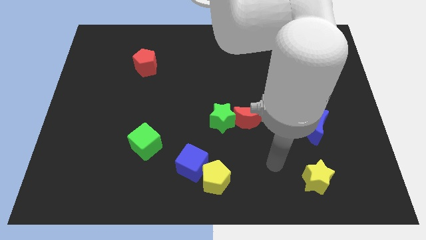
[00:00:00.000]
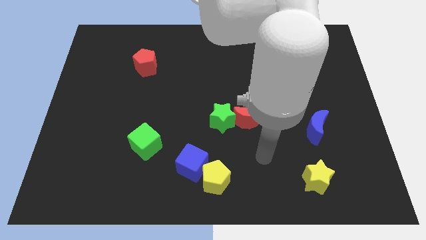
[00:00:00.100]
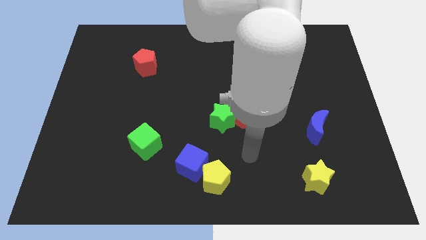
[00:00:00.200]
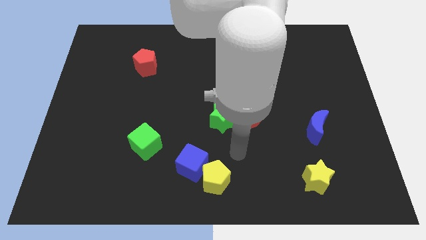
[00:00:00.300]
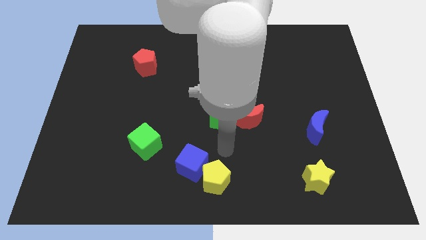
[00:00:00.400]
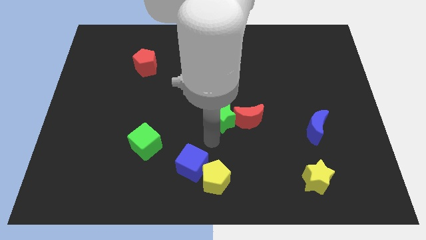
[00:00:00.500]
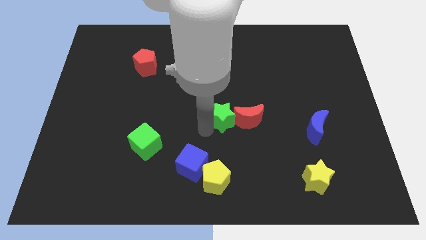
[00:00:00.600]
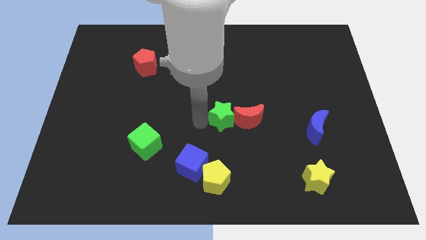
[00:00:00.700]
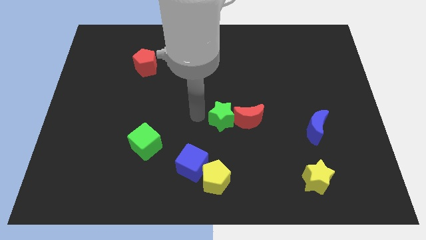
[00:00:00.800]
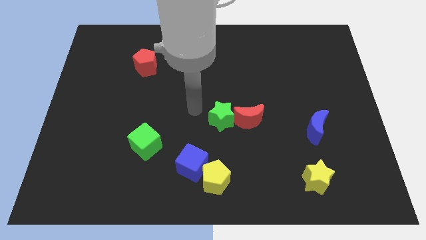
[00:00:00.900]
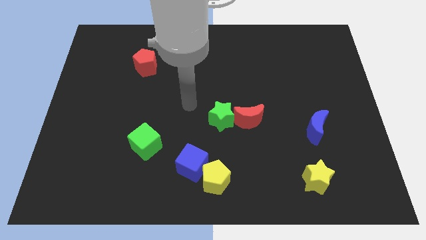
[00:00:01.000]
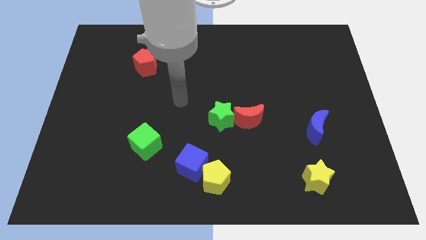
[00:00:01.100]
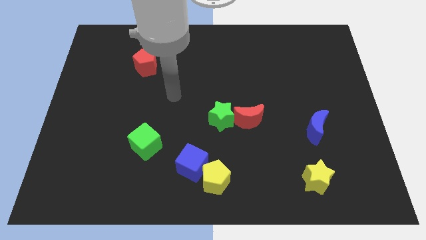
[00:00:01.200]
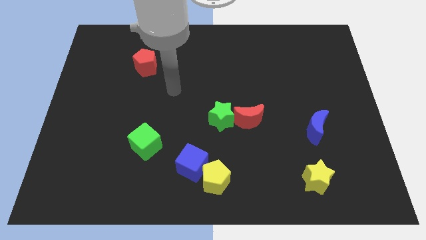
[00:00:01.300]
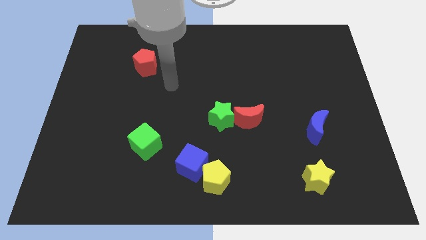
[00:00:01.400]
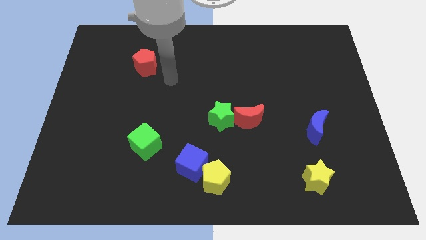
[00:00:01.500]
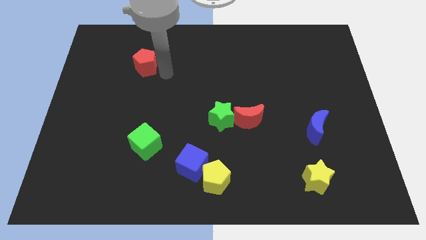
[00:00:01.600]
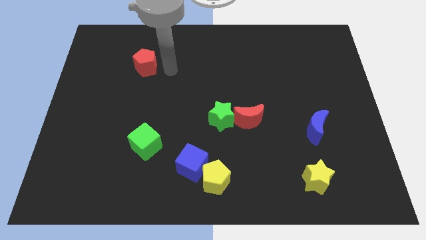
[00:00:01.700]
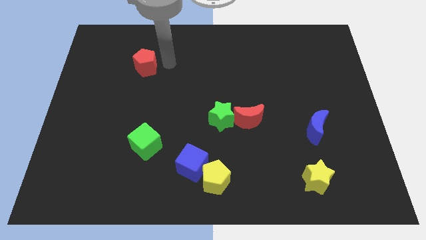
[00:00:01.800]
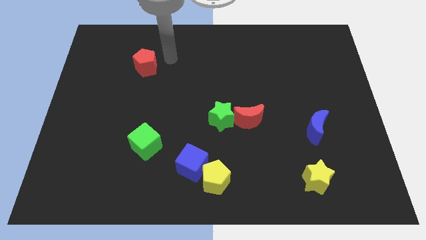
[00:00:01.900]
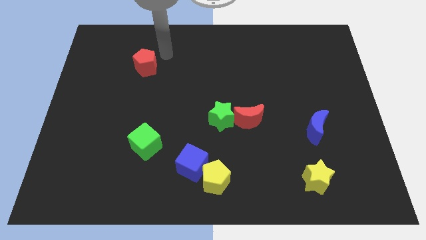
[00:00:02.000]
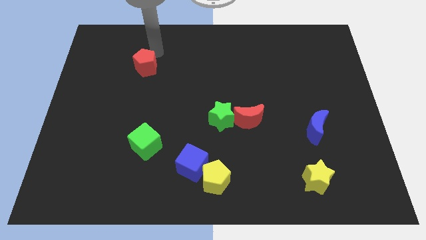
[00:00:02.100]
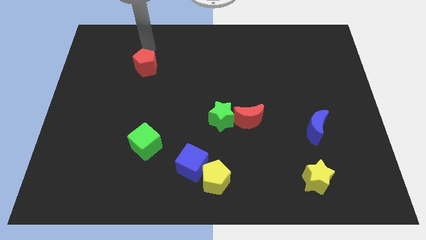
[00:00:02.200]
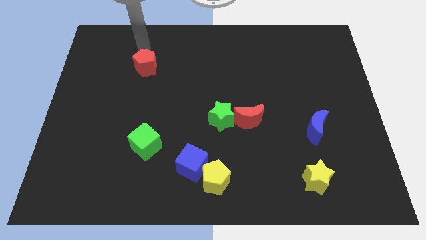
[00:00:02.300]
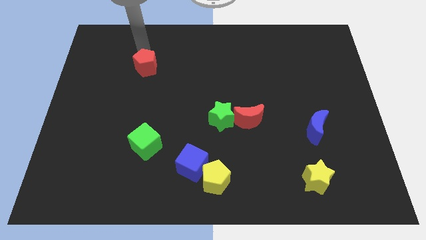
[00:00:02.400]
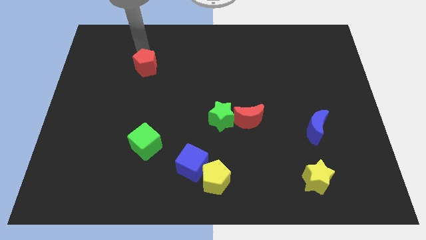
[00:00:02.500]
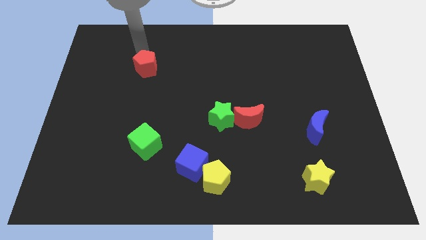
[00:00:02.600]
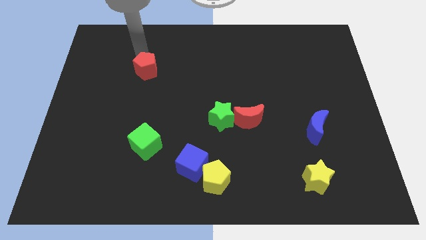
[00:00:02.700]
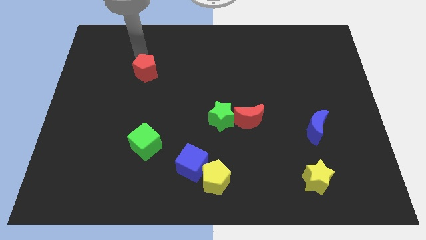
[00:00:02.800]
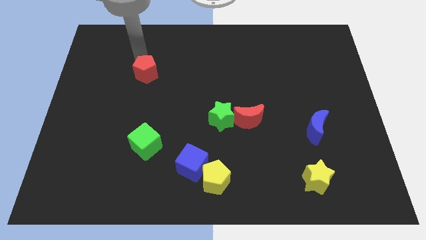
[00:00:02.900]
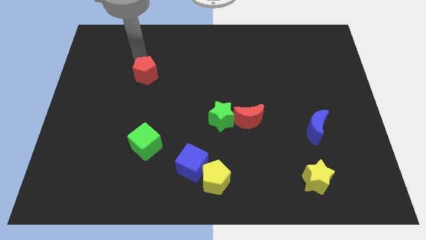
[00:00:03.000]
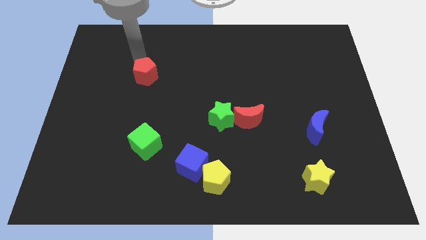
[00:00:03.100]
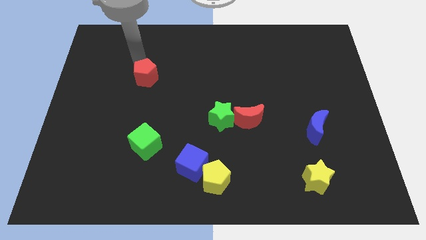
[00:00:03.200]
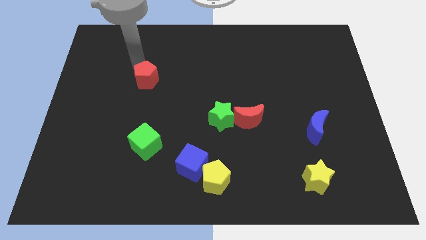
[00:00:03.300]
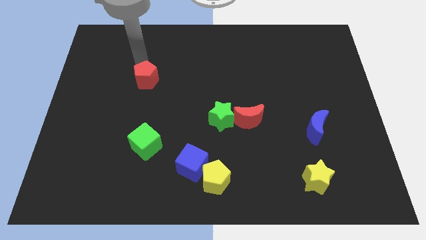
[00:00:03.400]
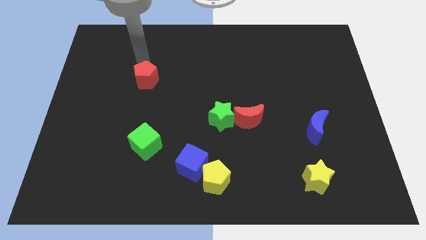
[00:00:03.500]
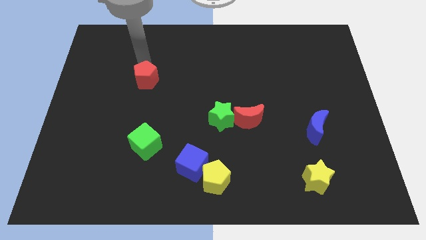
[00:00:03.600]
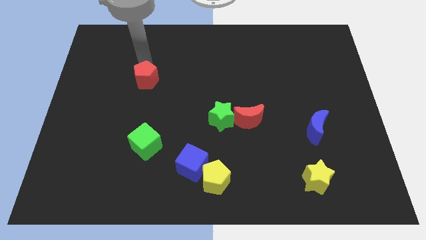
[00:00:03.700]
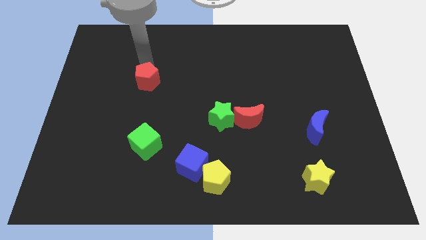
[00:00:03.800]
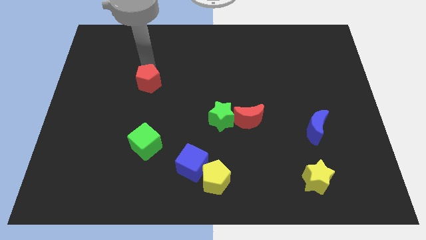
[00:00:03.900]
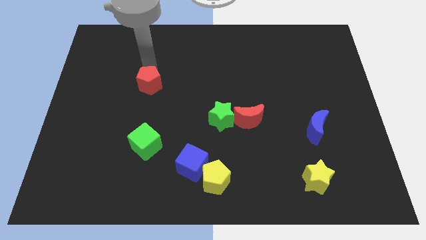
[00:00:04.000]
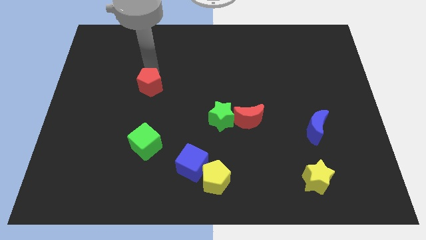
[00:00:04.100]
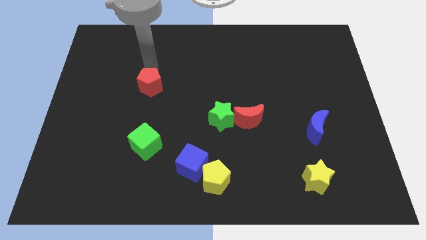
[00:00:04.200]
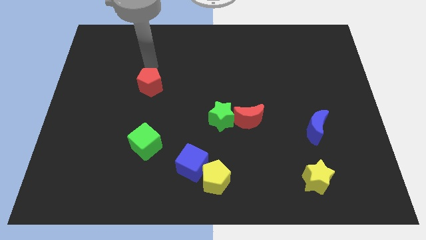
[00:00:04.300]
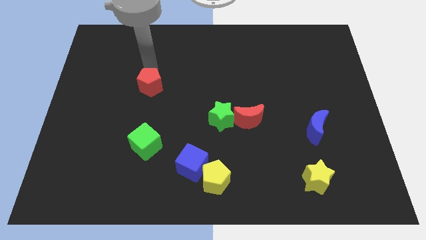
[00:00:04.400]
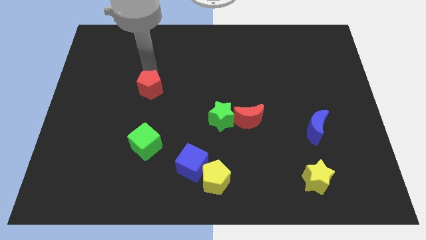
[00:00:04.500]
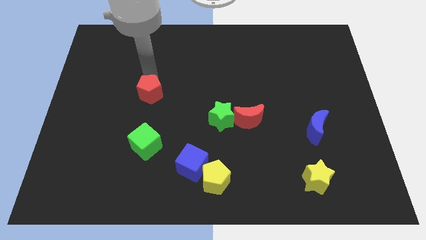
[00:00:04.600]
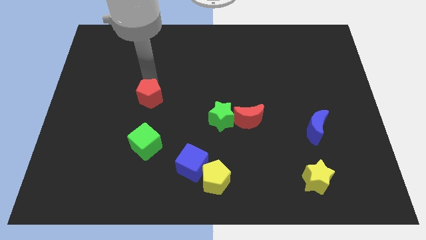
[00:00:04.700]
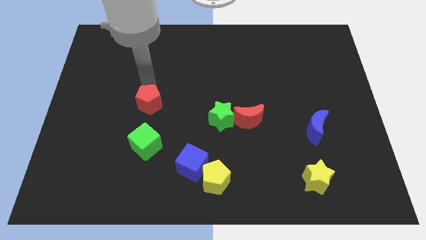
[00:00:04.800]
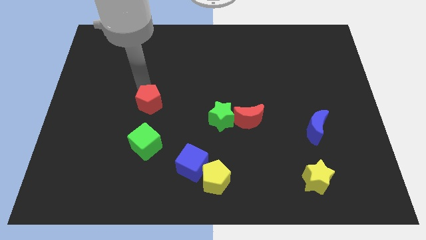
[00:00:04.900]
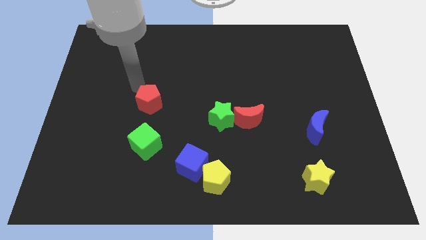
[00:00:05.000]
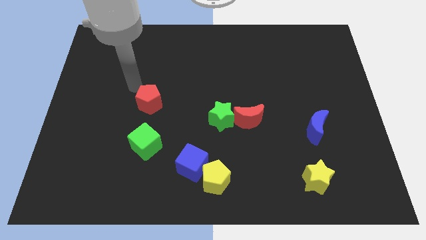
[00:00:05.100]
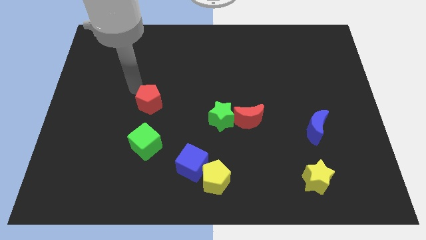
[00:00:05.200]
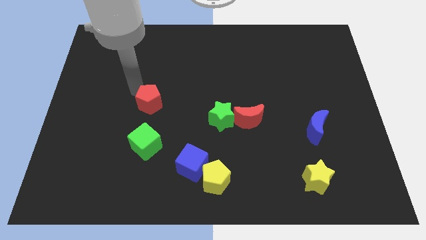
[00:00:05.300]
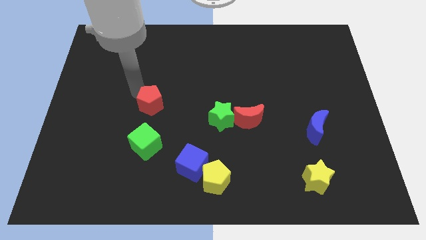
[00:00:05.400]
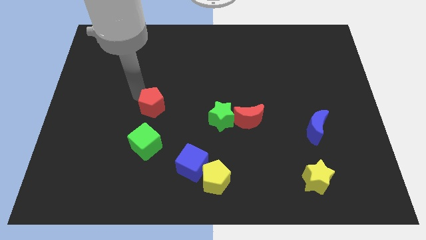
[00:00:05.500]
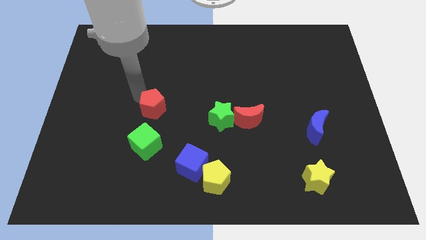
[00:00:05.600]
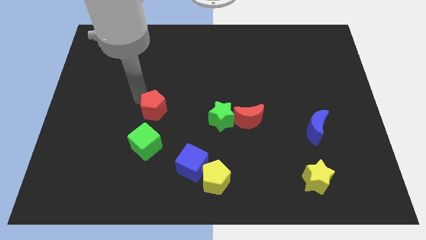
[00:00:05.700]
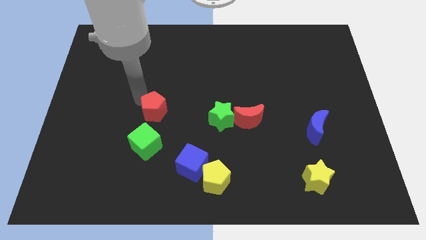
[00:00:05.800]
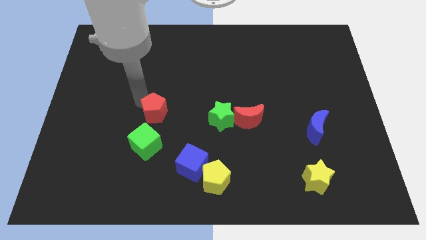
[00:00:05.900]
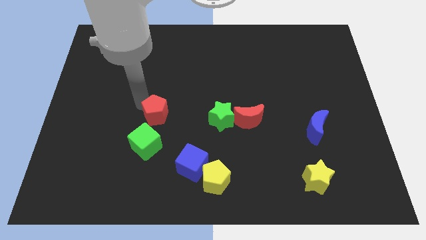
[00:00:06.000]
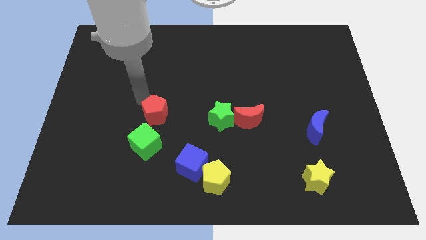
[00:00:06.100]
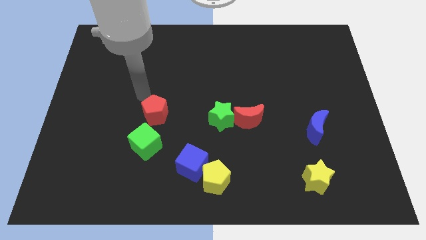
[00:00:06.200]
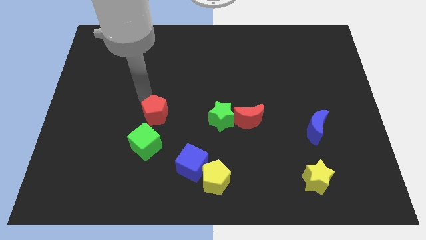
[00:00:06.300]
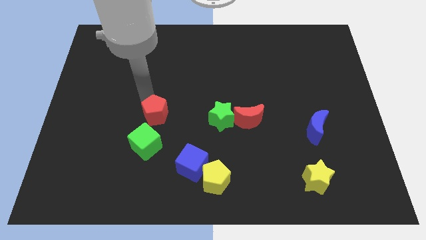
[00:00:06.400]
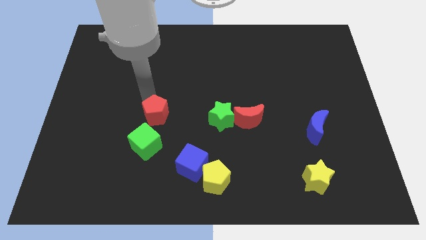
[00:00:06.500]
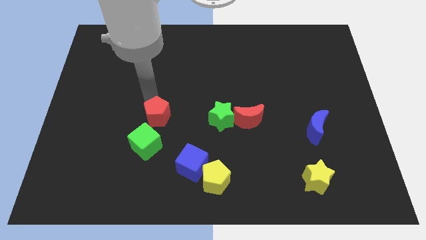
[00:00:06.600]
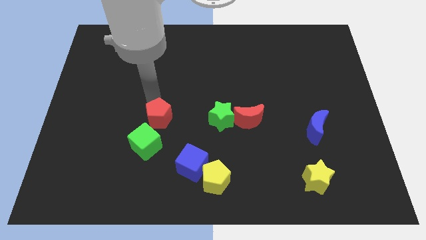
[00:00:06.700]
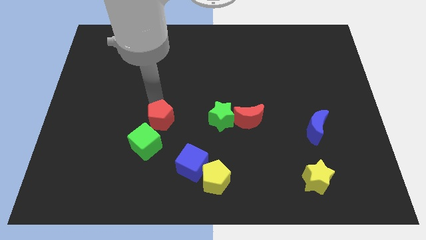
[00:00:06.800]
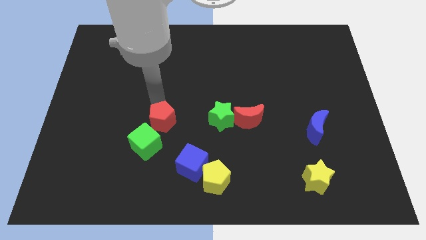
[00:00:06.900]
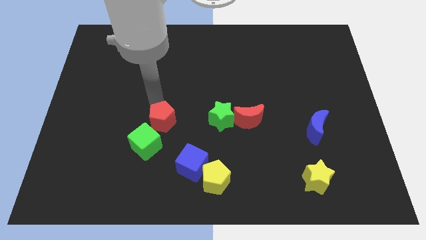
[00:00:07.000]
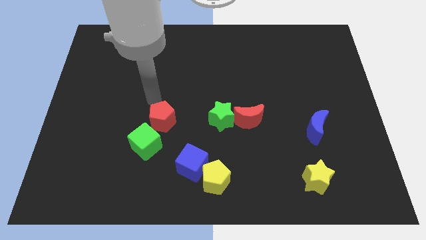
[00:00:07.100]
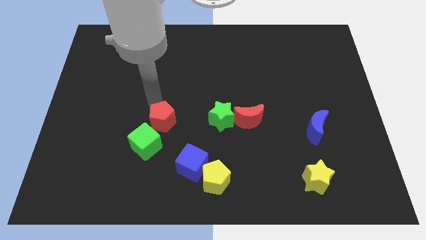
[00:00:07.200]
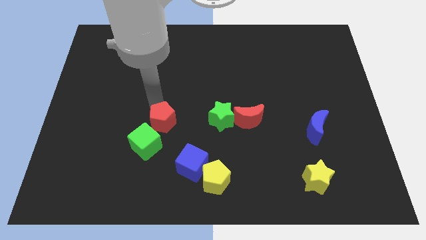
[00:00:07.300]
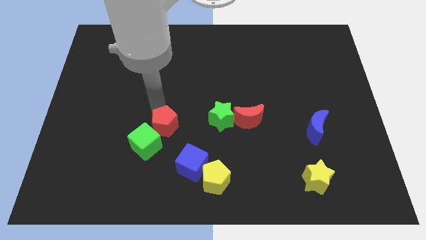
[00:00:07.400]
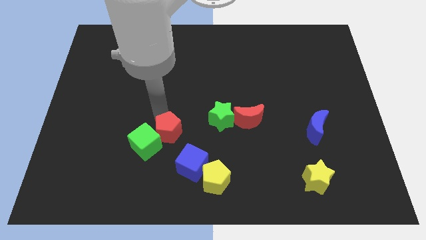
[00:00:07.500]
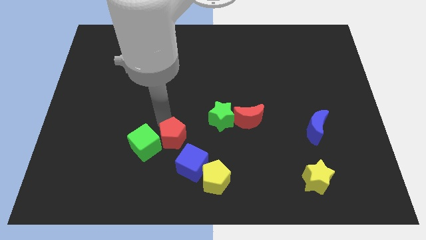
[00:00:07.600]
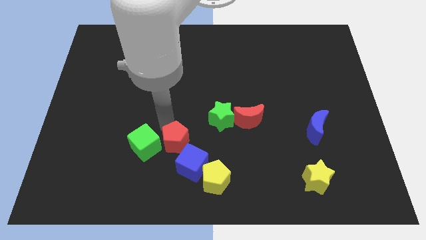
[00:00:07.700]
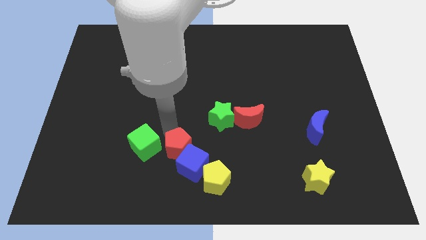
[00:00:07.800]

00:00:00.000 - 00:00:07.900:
move the red pentagon to the blue cube
